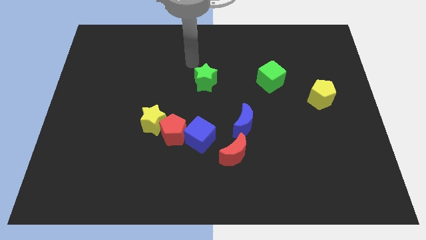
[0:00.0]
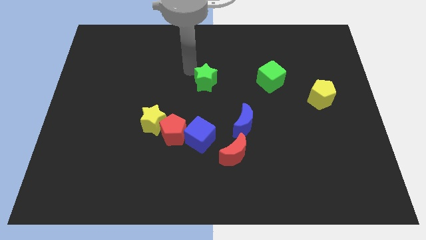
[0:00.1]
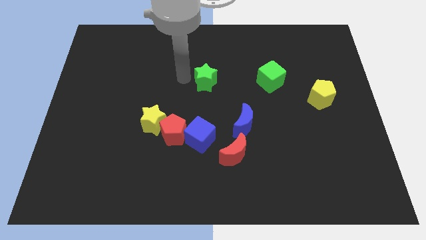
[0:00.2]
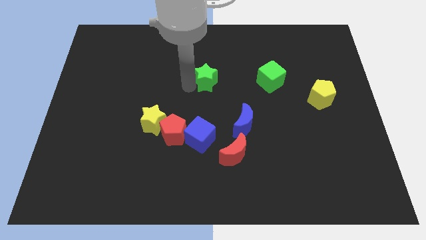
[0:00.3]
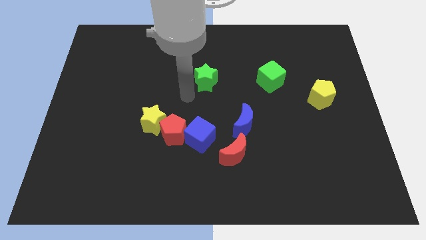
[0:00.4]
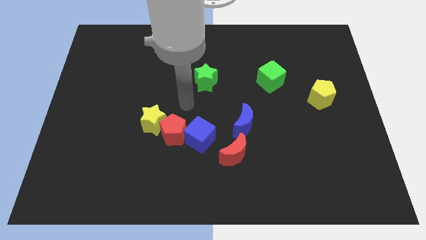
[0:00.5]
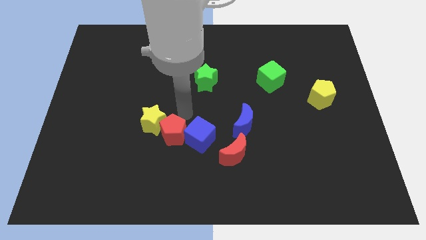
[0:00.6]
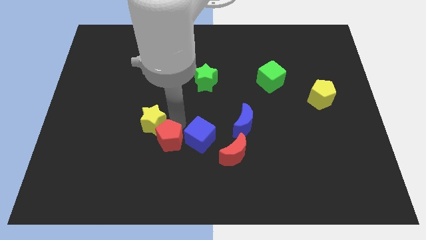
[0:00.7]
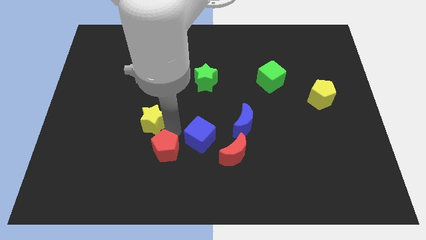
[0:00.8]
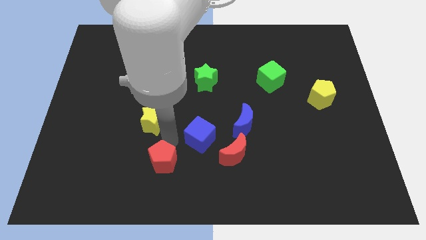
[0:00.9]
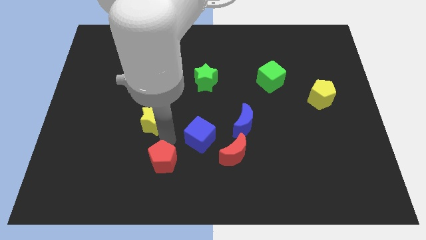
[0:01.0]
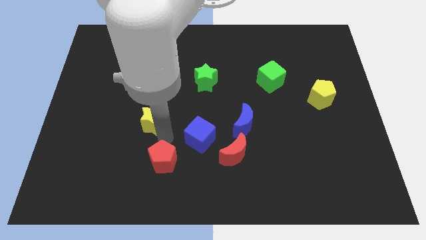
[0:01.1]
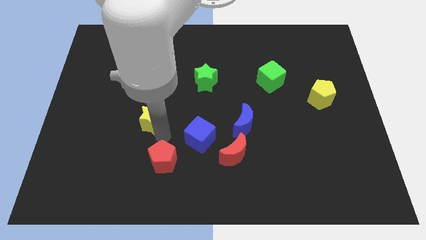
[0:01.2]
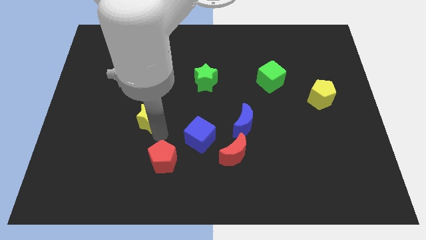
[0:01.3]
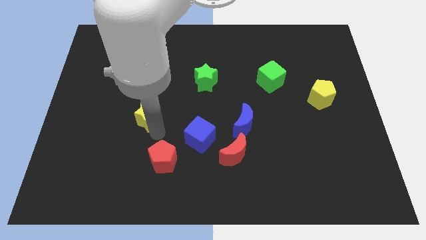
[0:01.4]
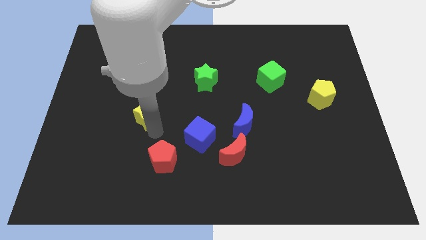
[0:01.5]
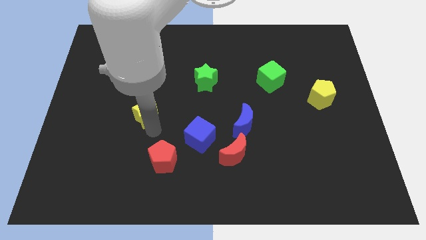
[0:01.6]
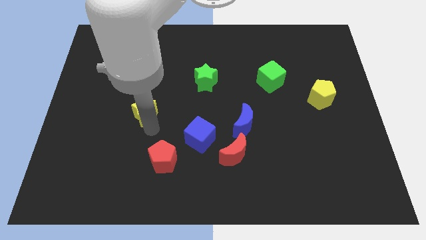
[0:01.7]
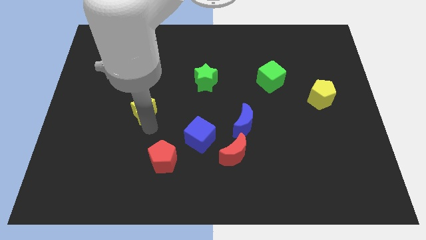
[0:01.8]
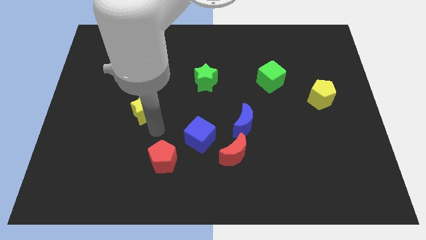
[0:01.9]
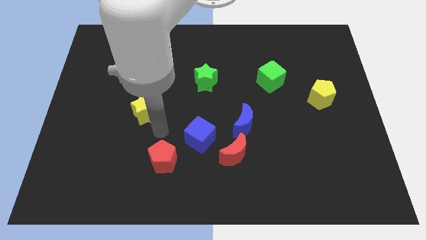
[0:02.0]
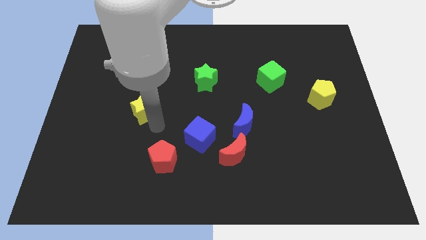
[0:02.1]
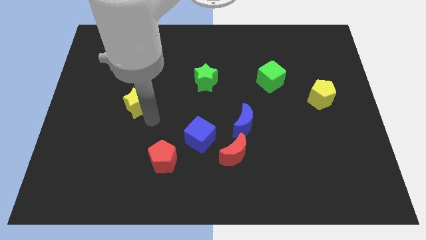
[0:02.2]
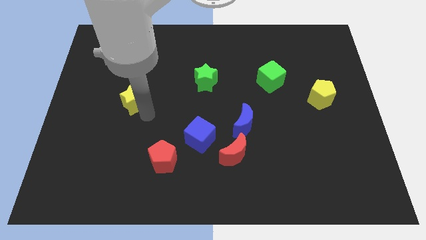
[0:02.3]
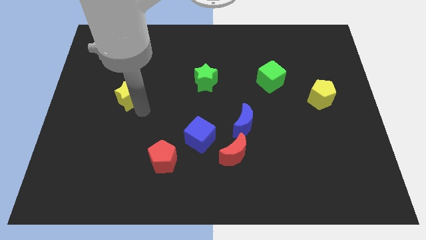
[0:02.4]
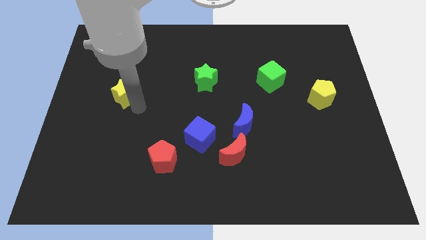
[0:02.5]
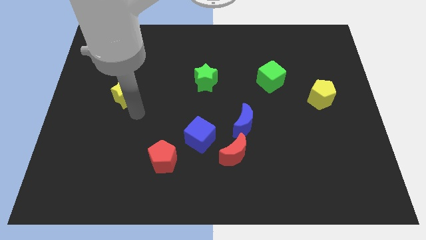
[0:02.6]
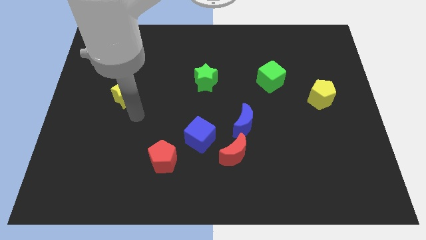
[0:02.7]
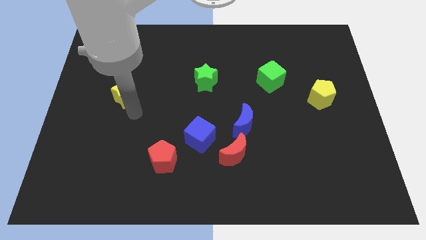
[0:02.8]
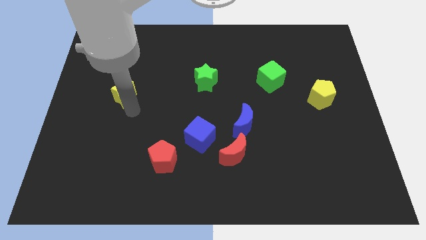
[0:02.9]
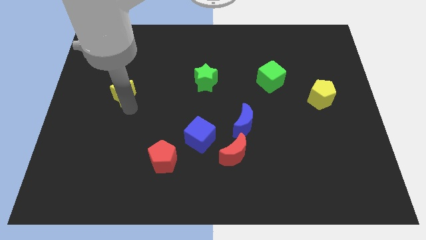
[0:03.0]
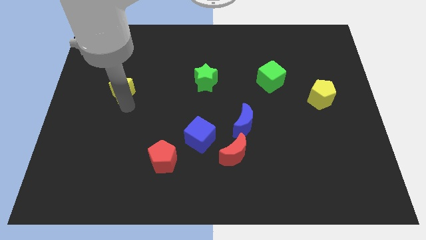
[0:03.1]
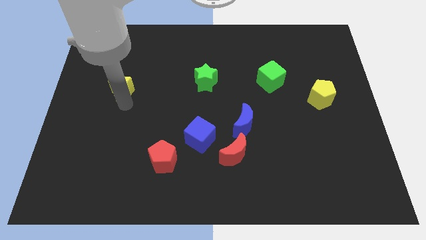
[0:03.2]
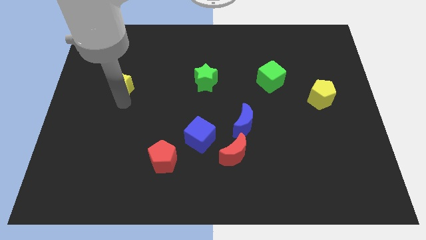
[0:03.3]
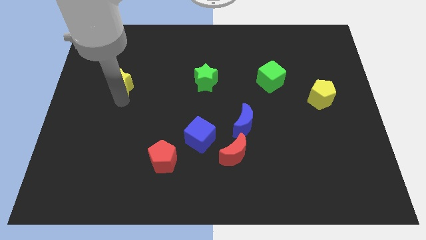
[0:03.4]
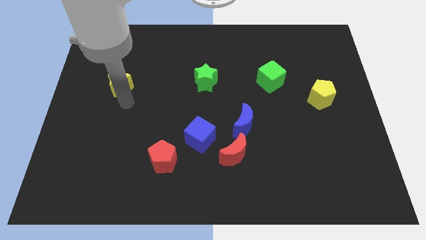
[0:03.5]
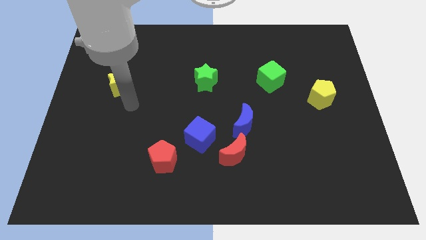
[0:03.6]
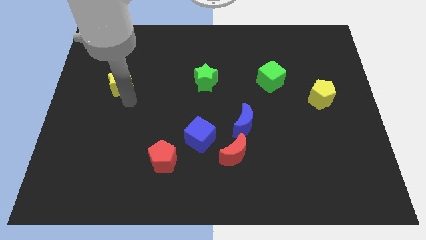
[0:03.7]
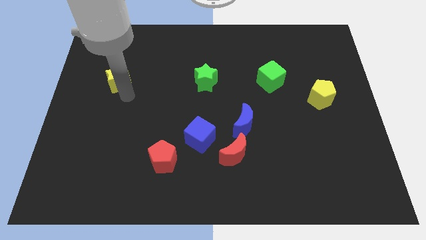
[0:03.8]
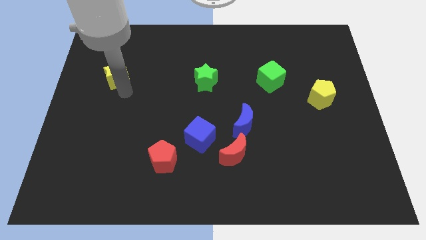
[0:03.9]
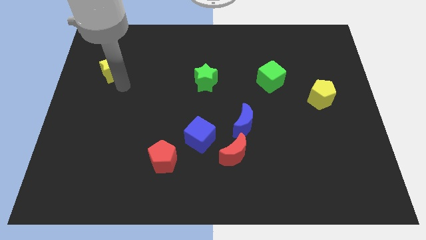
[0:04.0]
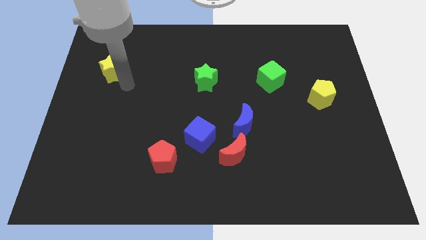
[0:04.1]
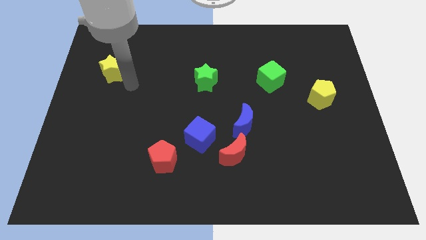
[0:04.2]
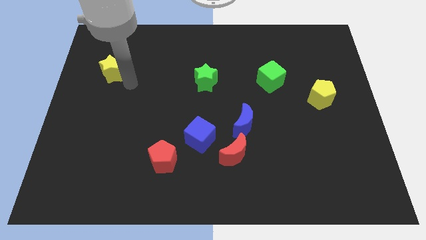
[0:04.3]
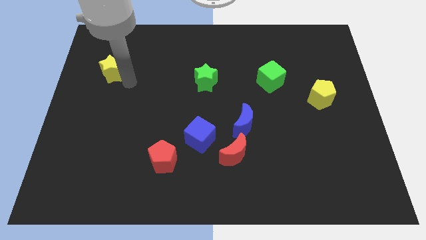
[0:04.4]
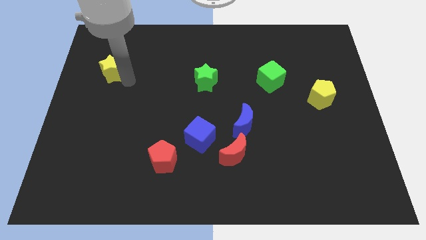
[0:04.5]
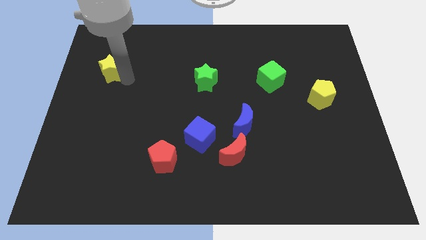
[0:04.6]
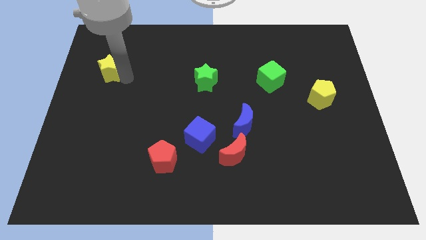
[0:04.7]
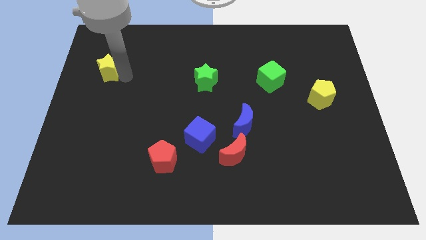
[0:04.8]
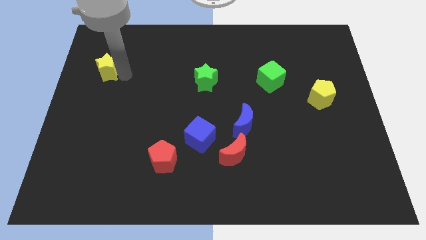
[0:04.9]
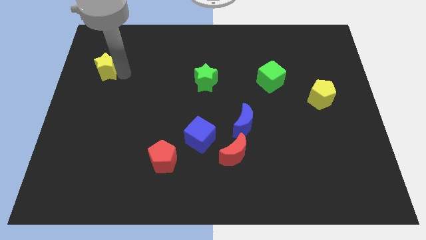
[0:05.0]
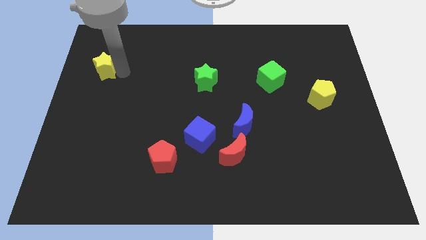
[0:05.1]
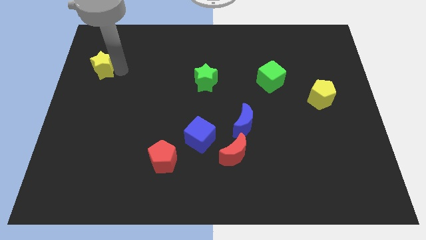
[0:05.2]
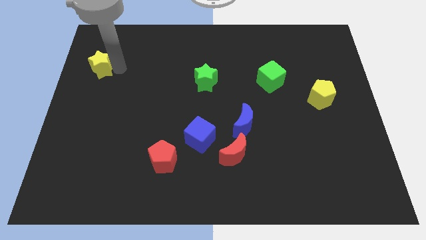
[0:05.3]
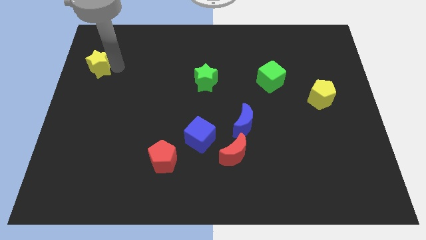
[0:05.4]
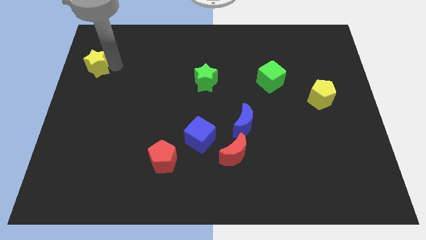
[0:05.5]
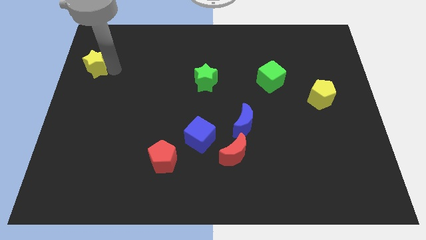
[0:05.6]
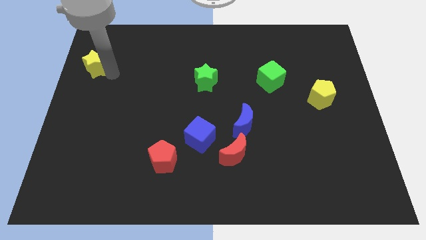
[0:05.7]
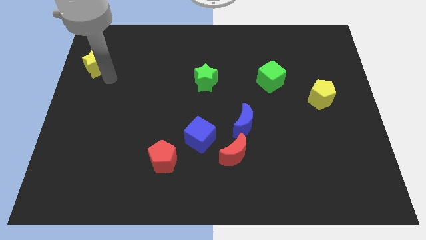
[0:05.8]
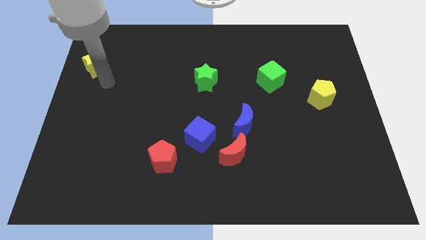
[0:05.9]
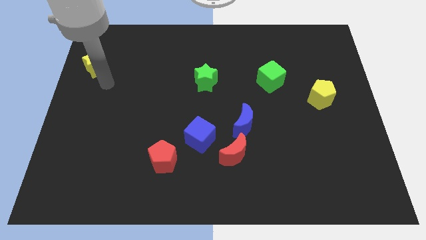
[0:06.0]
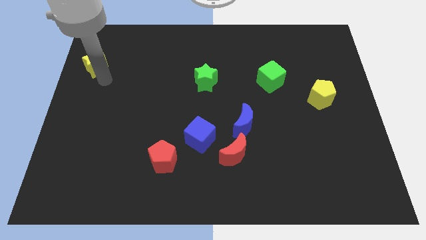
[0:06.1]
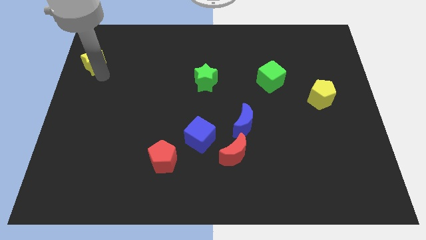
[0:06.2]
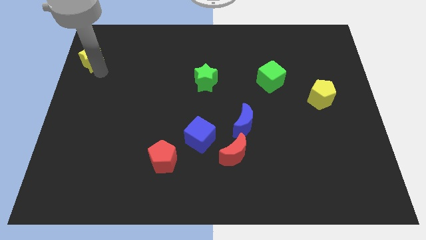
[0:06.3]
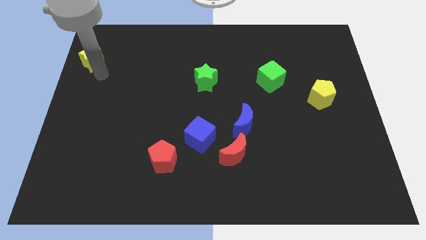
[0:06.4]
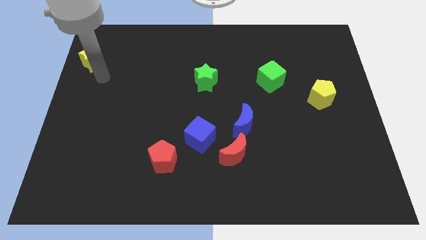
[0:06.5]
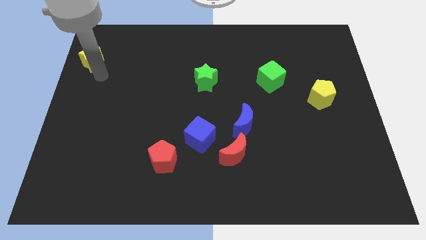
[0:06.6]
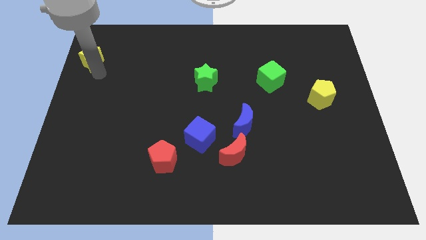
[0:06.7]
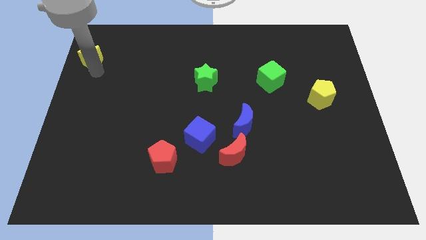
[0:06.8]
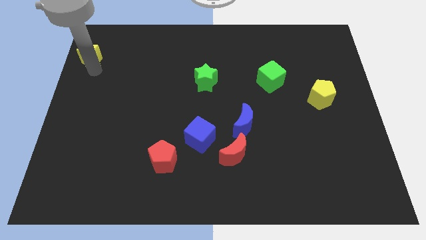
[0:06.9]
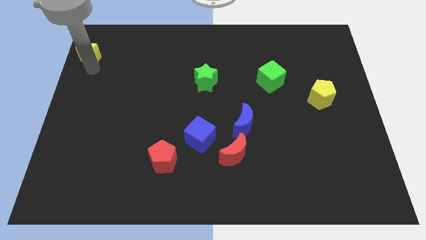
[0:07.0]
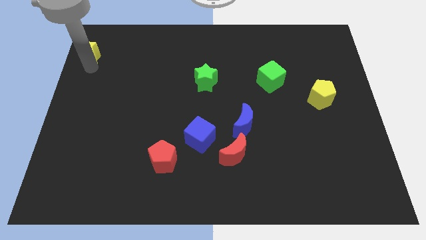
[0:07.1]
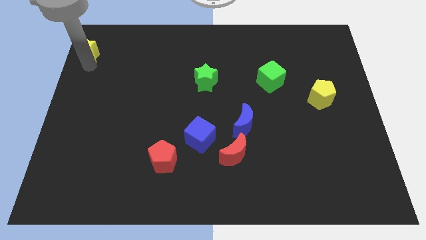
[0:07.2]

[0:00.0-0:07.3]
move the yellow star to the upper left corner
